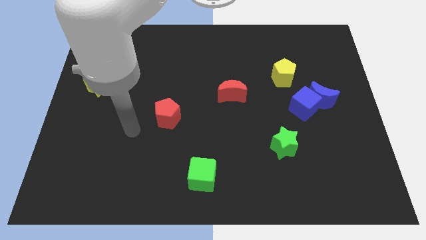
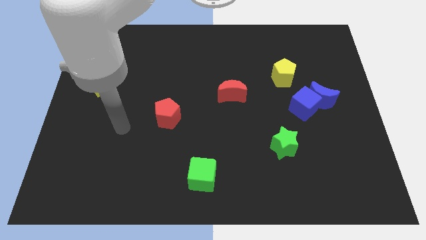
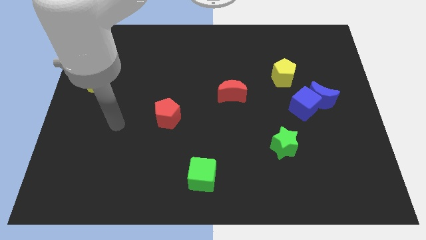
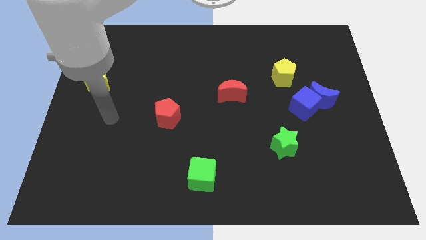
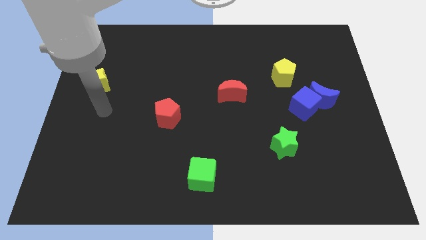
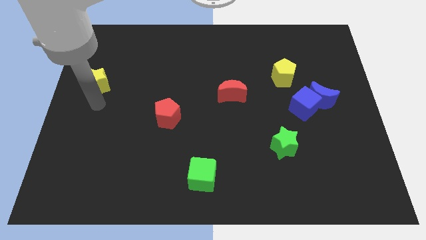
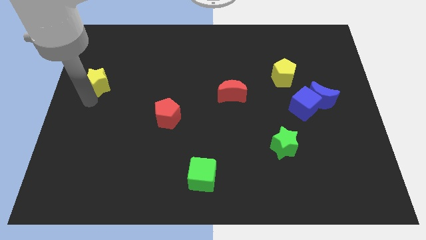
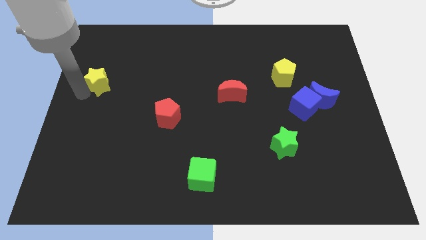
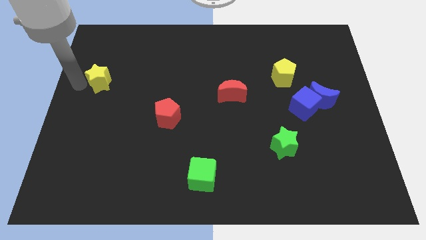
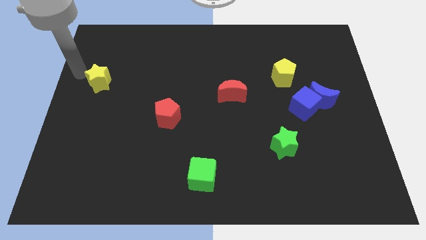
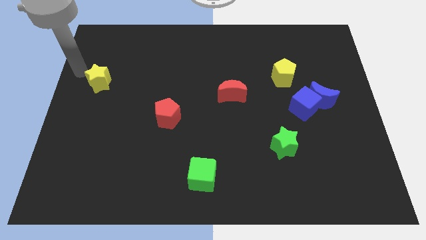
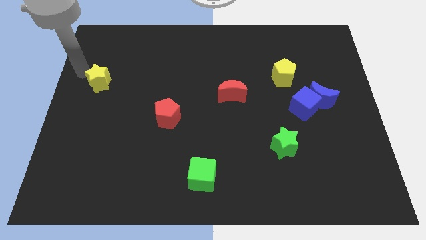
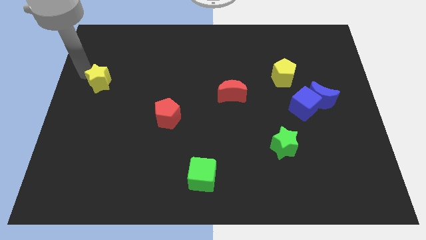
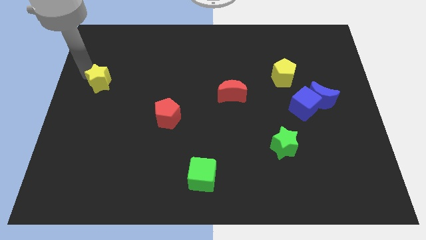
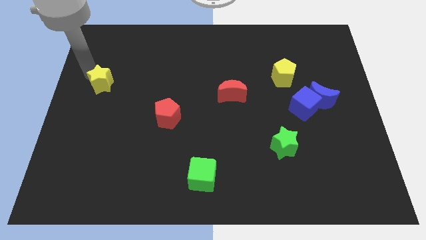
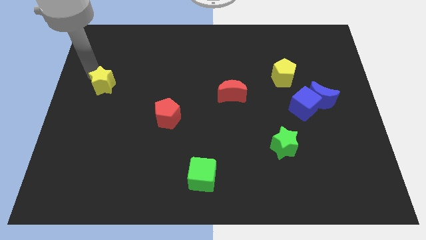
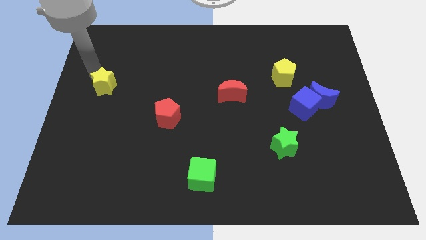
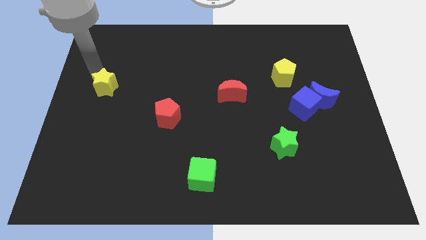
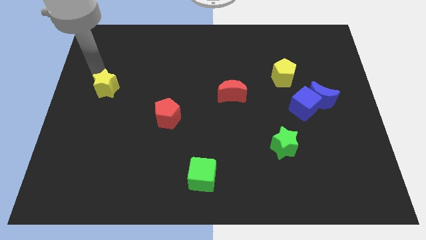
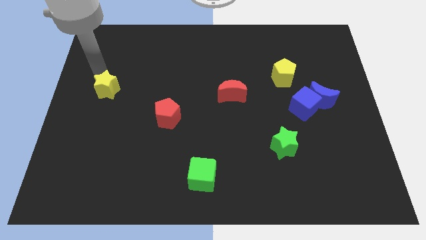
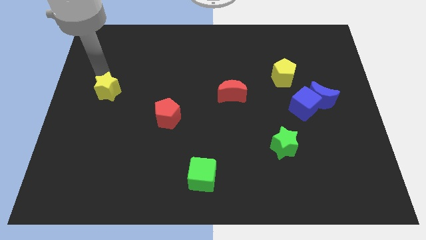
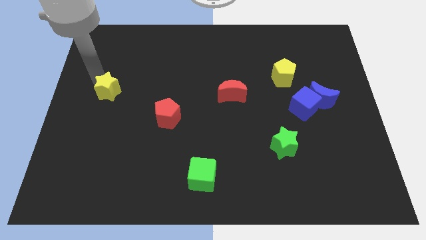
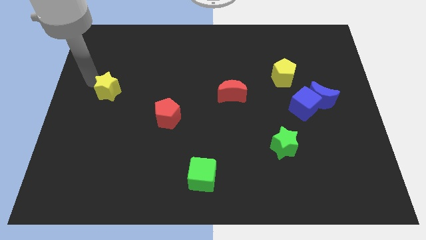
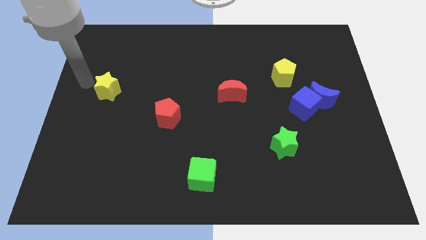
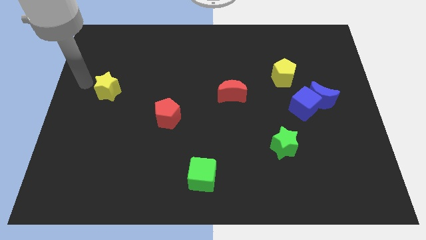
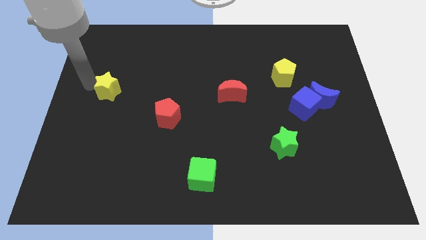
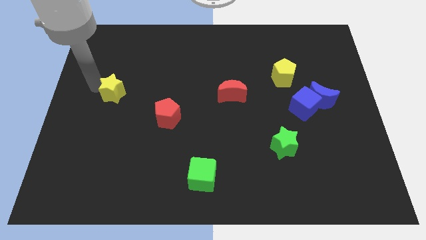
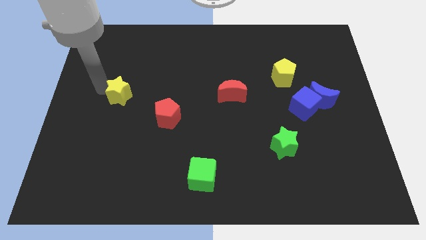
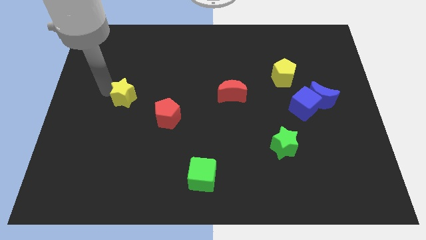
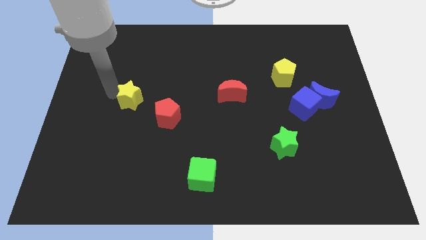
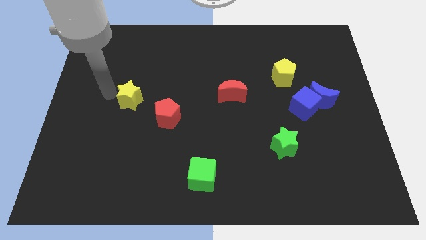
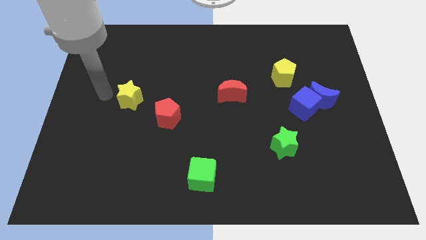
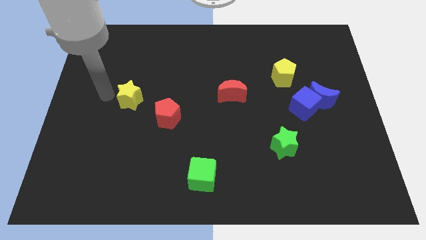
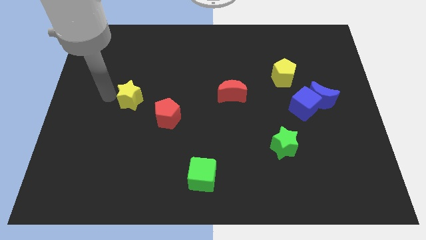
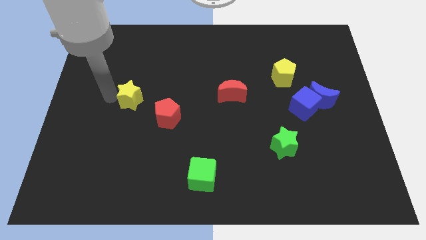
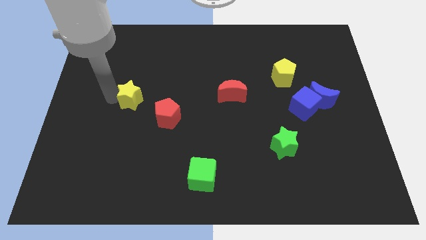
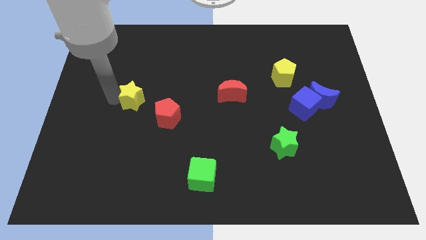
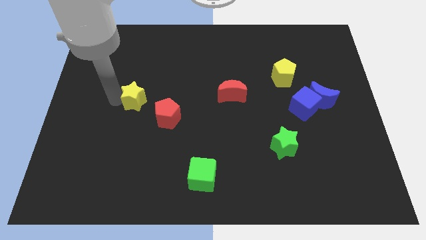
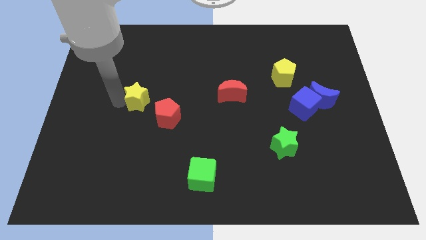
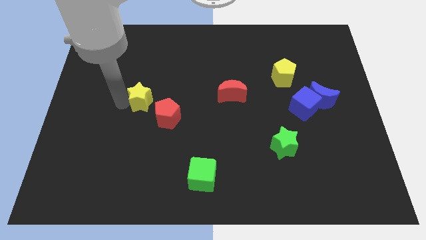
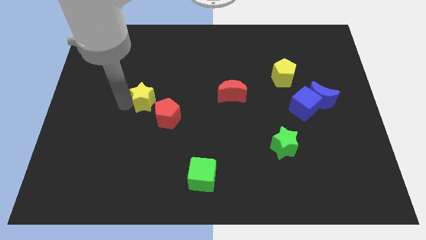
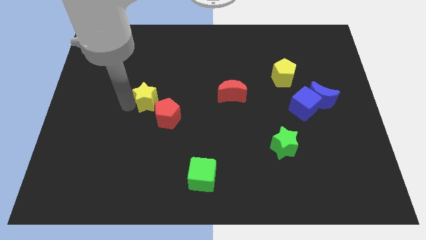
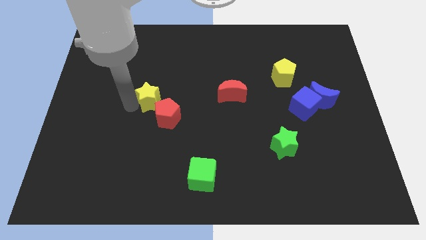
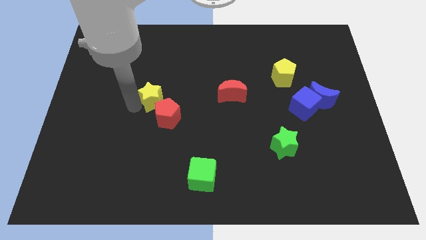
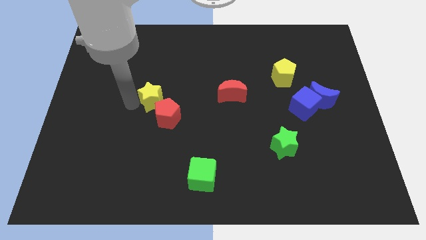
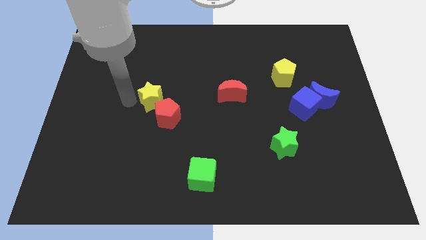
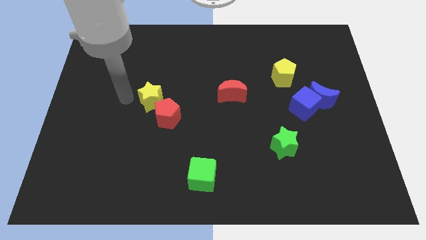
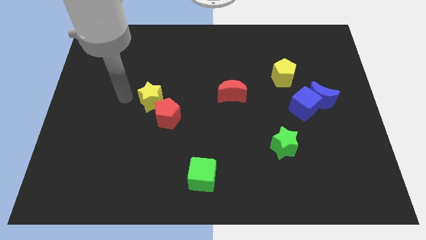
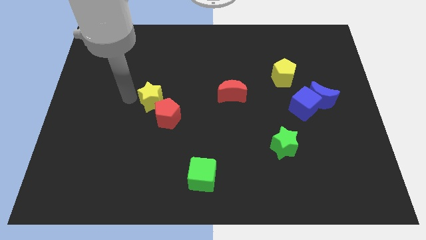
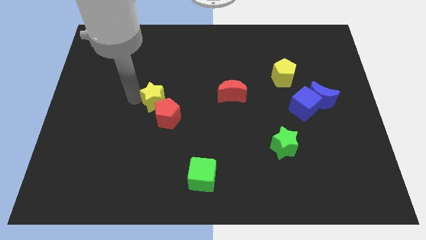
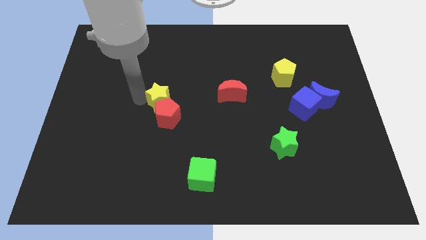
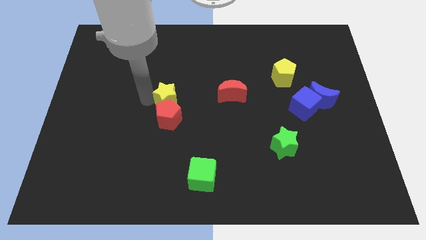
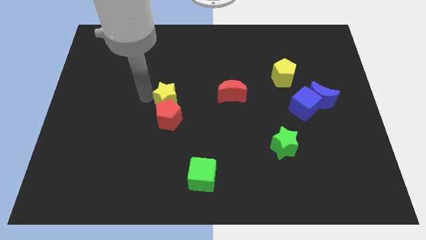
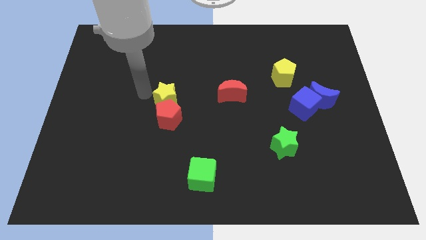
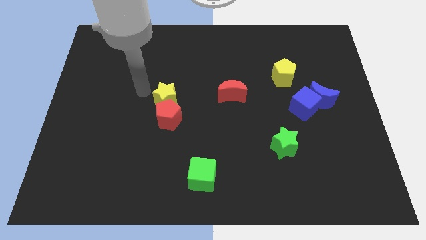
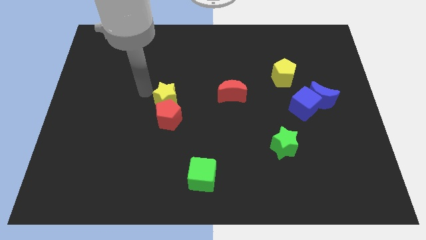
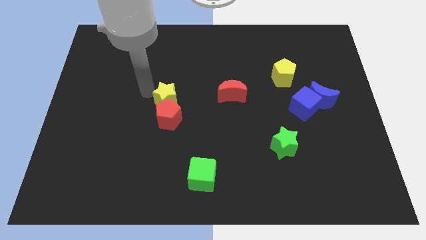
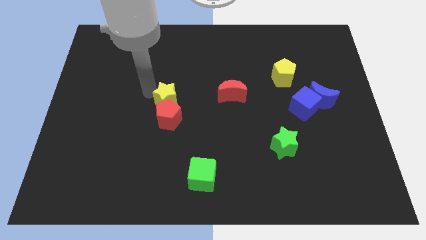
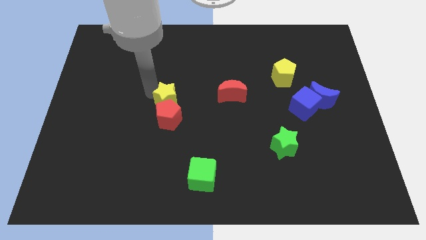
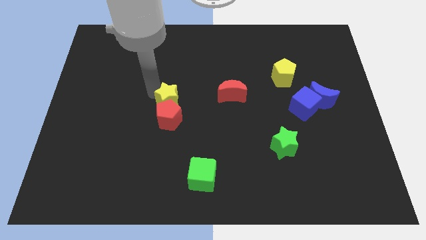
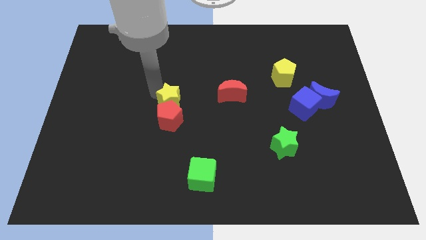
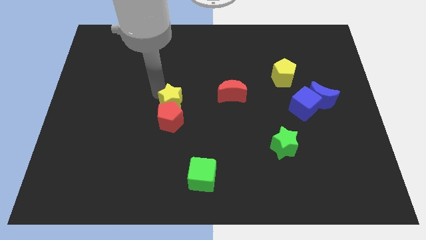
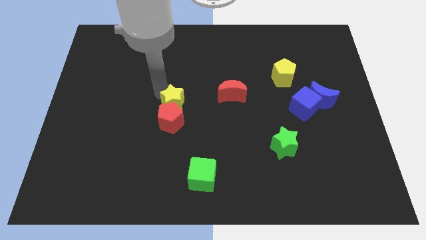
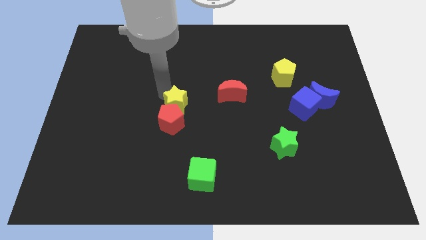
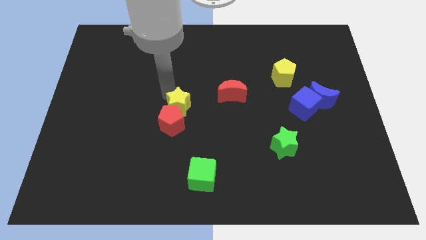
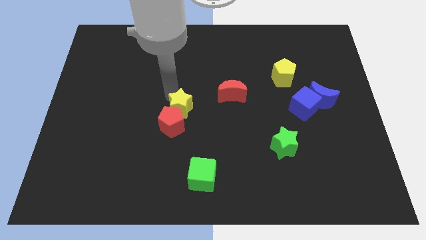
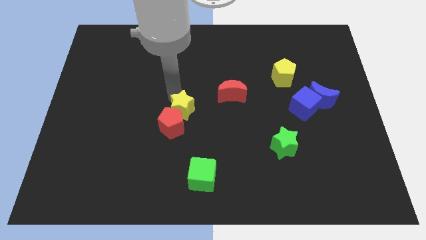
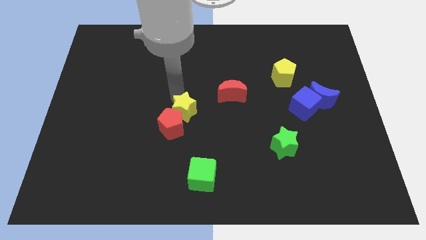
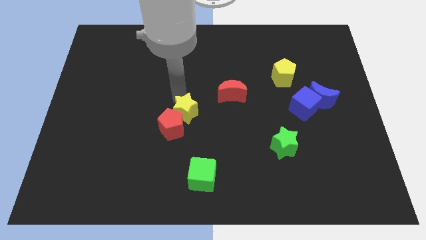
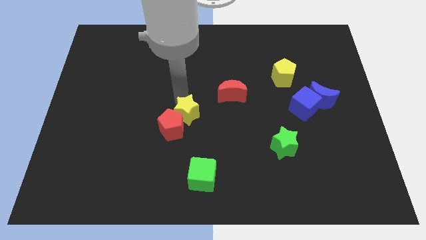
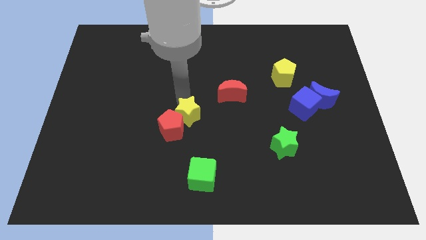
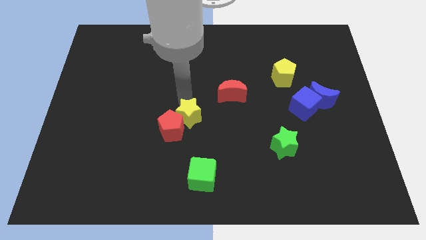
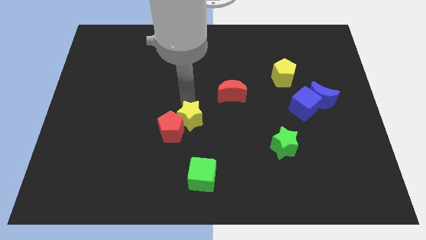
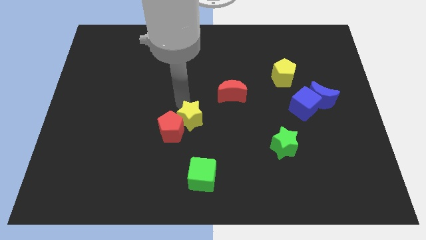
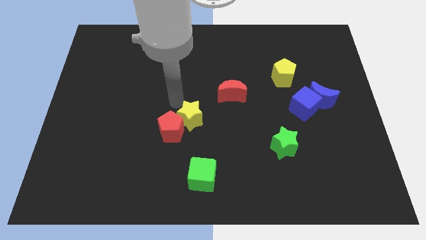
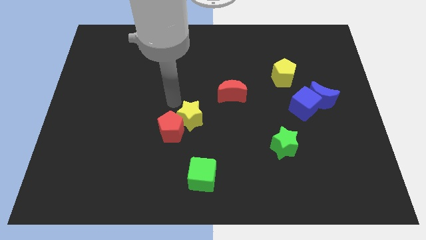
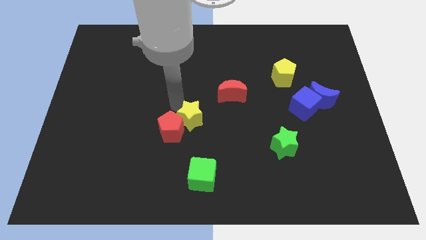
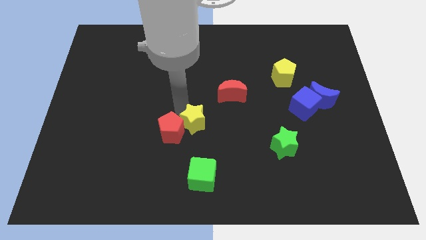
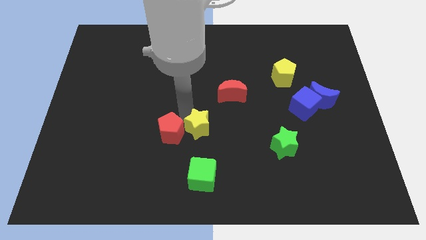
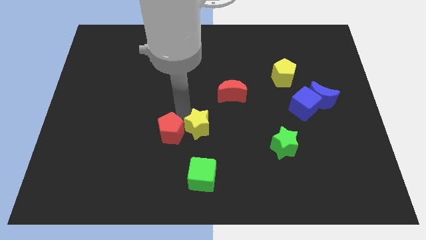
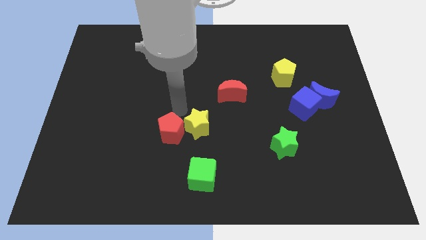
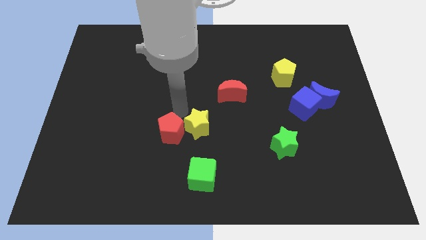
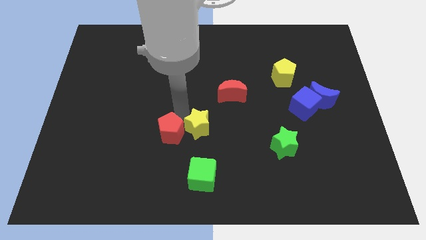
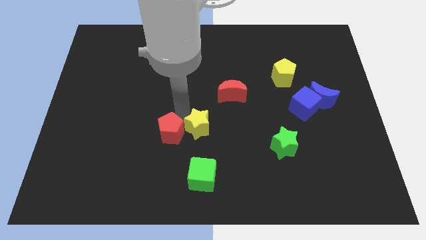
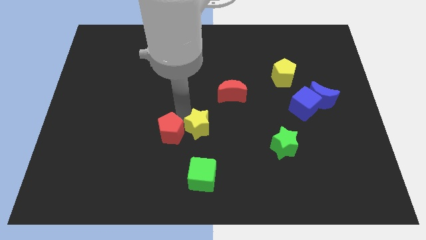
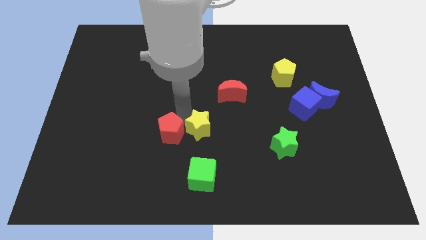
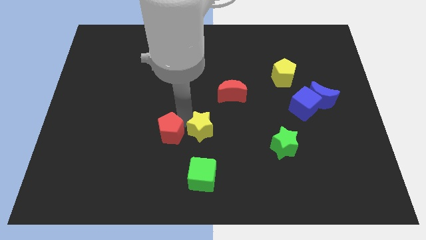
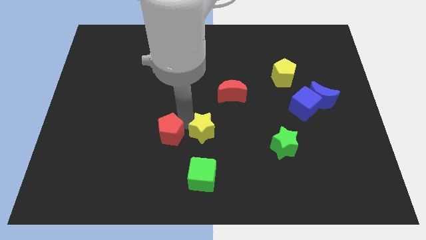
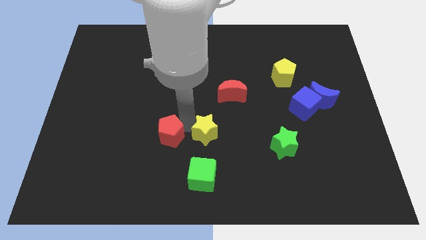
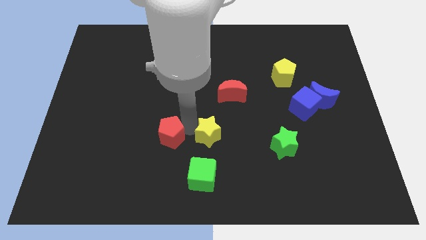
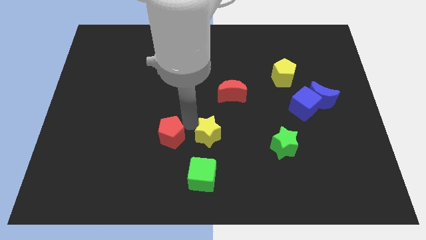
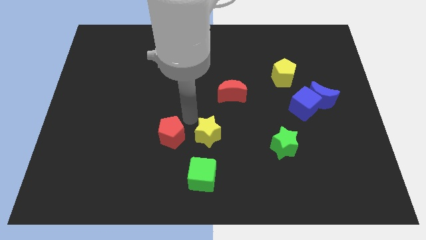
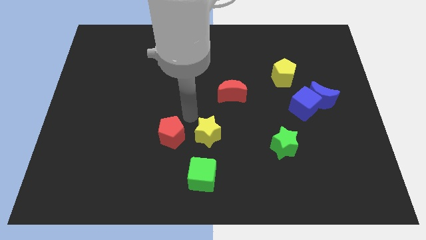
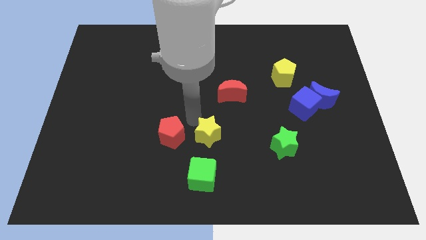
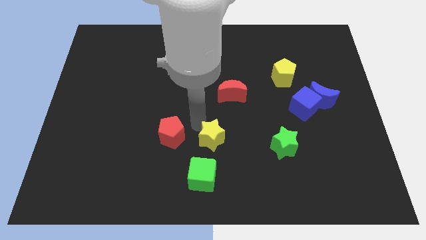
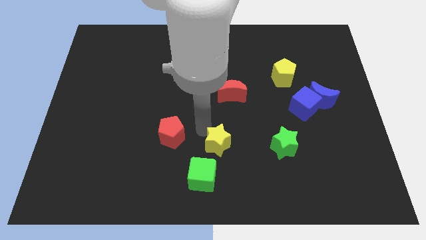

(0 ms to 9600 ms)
slide the yellow star diagonally up and to the right of the green cube
